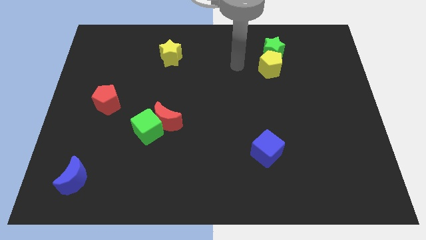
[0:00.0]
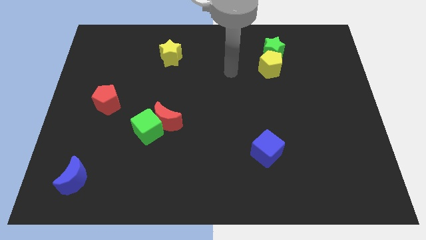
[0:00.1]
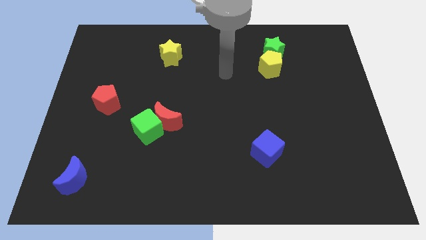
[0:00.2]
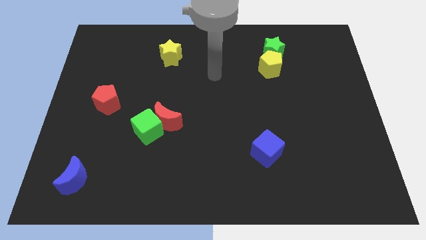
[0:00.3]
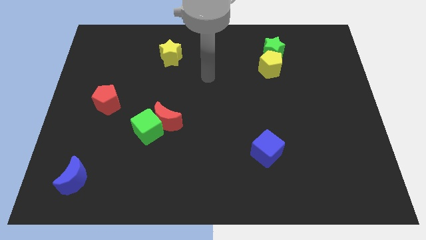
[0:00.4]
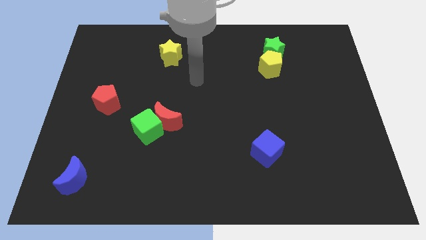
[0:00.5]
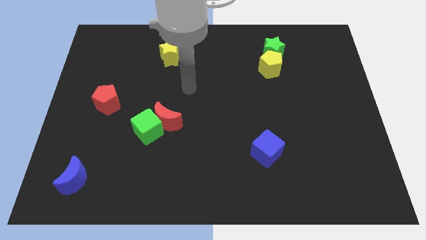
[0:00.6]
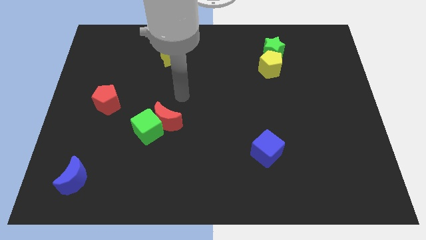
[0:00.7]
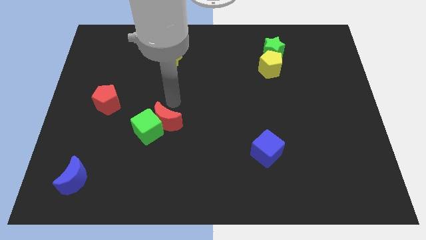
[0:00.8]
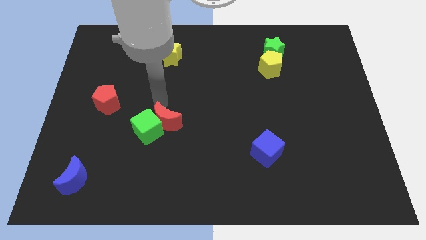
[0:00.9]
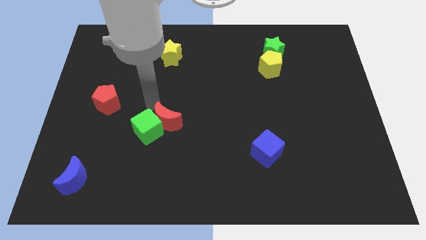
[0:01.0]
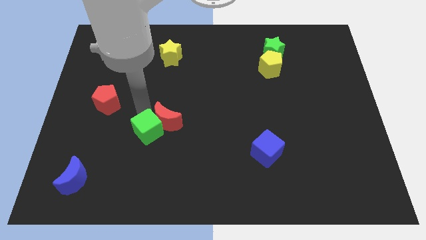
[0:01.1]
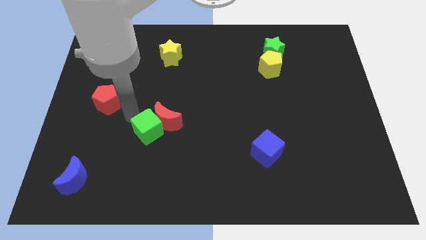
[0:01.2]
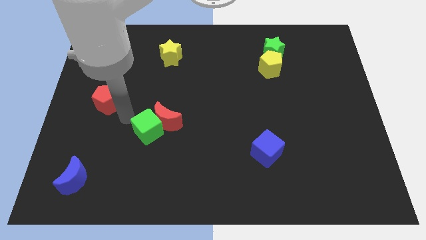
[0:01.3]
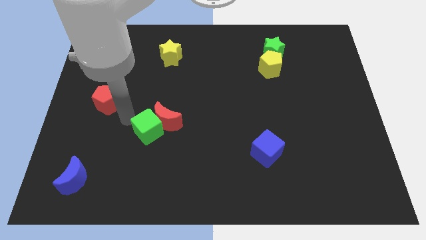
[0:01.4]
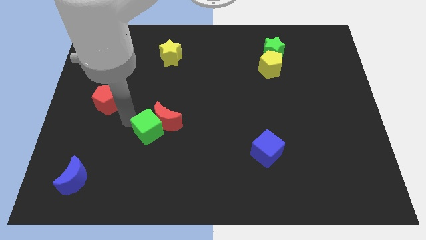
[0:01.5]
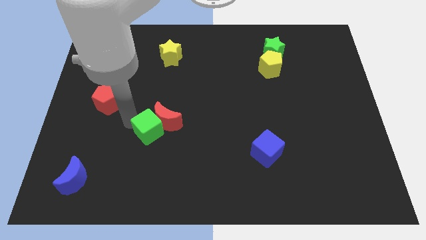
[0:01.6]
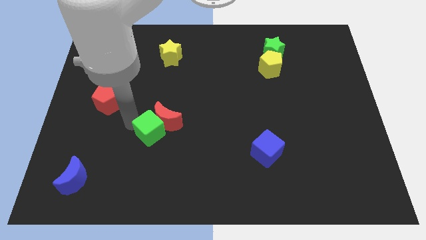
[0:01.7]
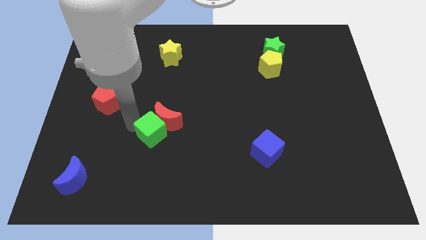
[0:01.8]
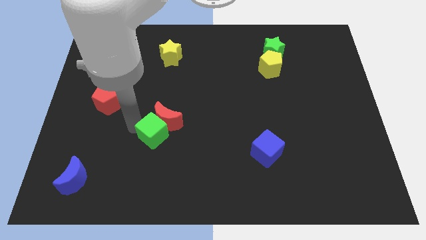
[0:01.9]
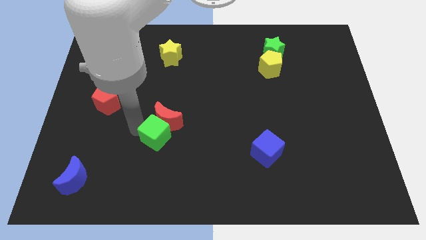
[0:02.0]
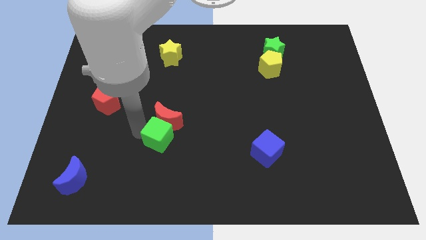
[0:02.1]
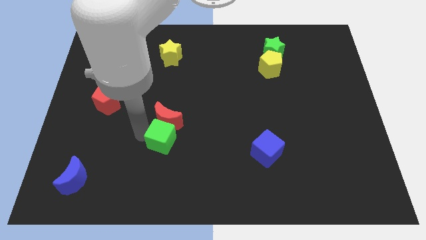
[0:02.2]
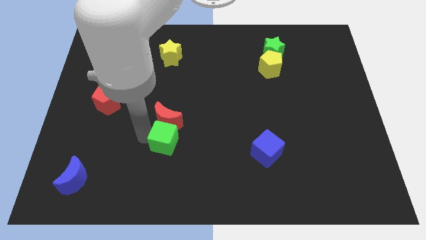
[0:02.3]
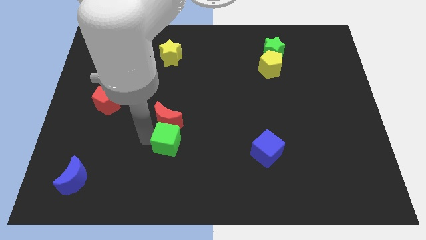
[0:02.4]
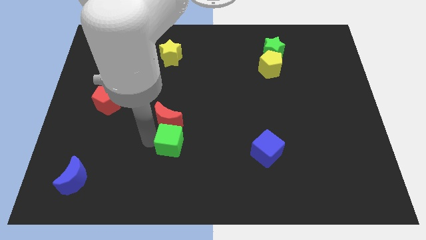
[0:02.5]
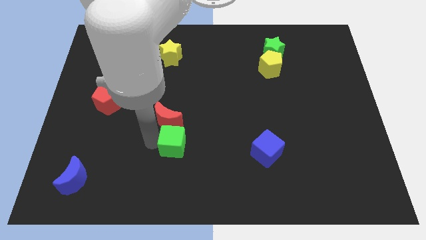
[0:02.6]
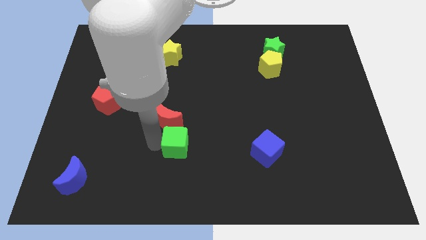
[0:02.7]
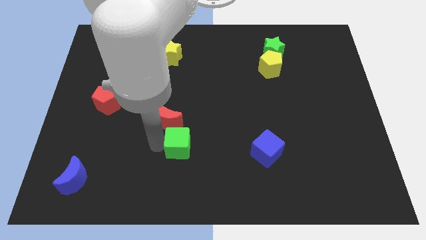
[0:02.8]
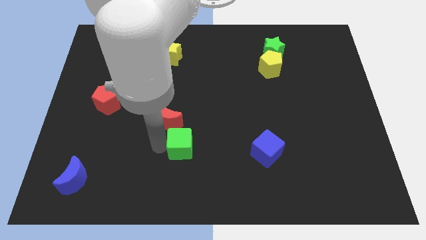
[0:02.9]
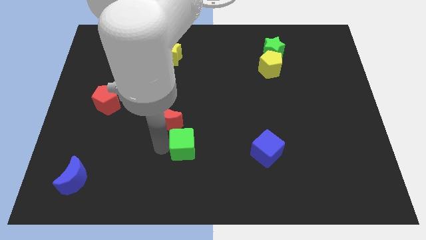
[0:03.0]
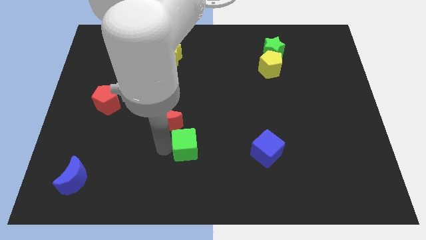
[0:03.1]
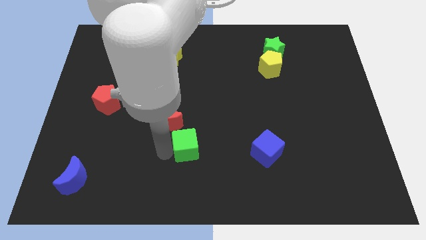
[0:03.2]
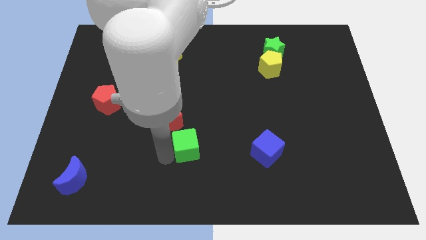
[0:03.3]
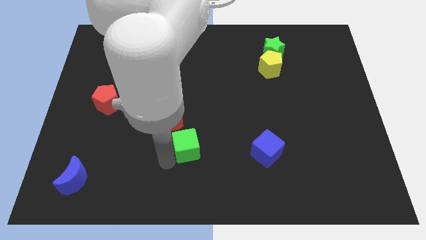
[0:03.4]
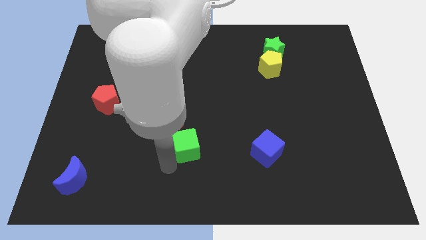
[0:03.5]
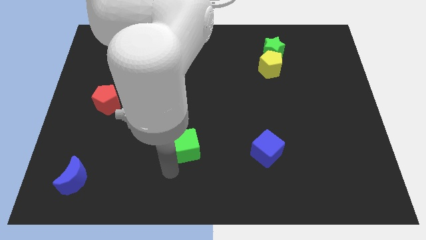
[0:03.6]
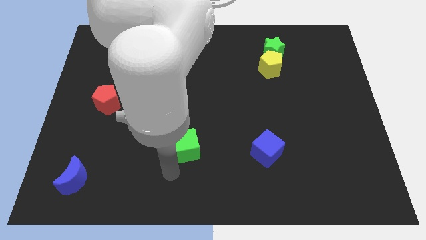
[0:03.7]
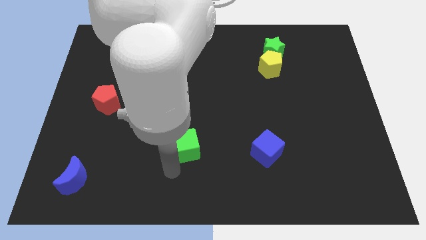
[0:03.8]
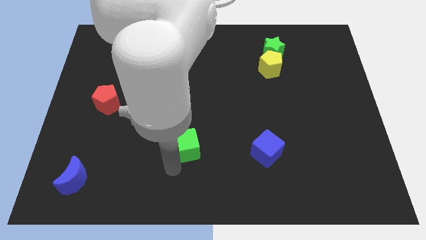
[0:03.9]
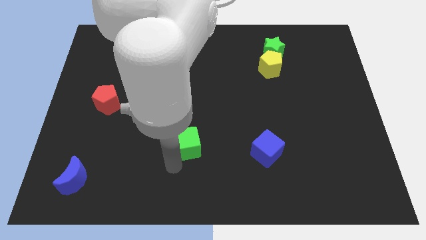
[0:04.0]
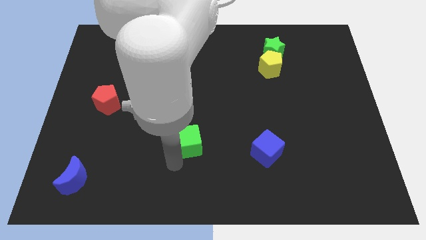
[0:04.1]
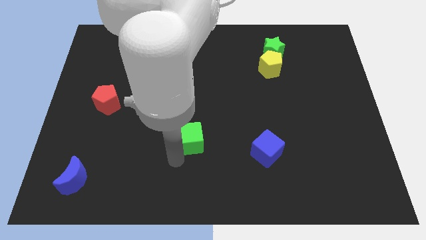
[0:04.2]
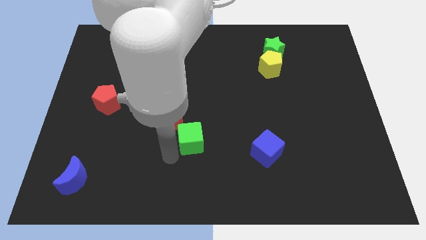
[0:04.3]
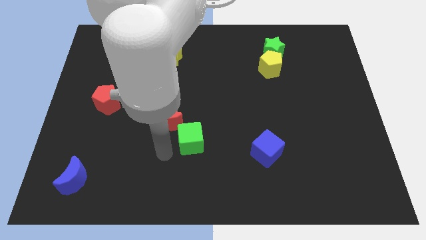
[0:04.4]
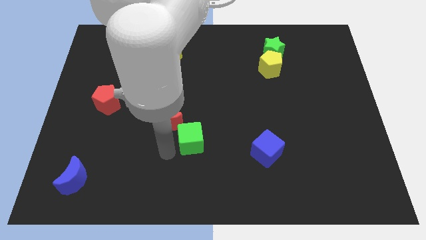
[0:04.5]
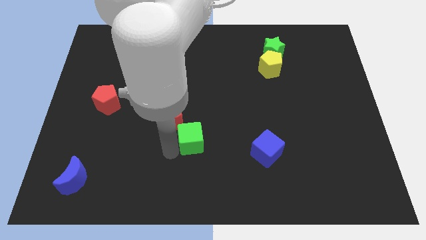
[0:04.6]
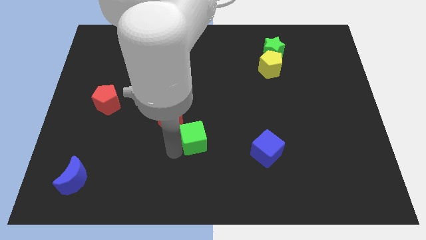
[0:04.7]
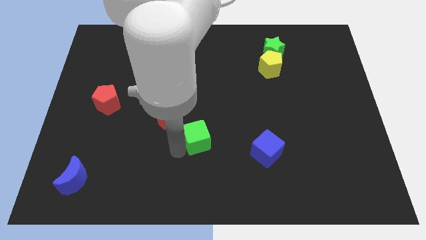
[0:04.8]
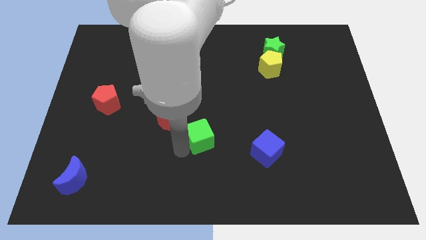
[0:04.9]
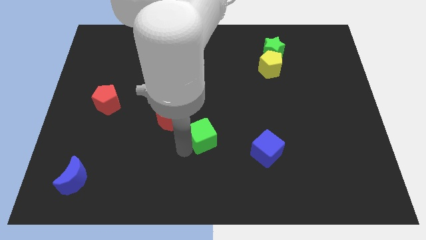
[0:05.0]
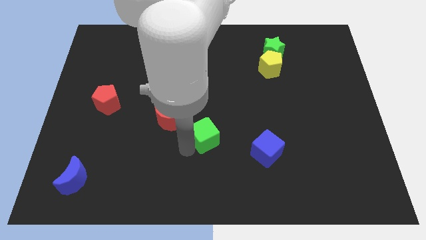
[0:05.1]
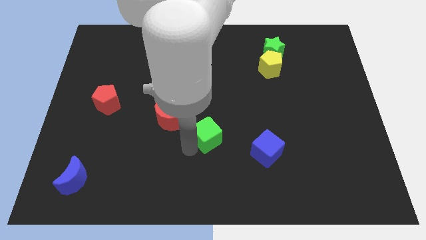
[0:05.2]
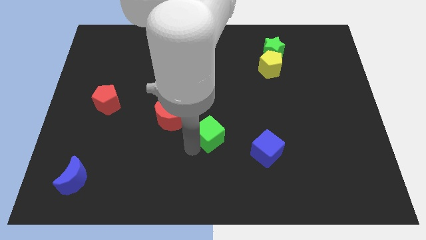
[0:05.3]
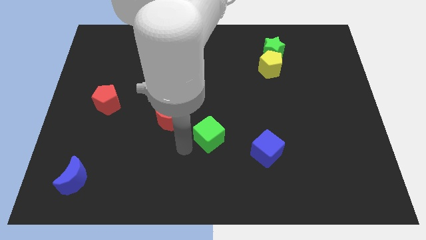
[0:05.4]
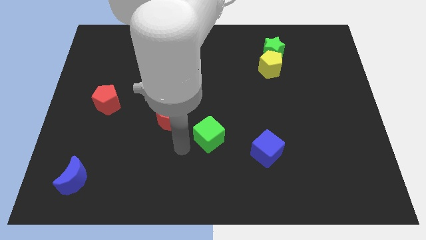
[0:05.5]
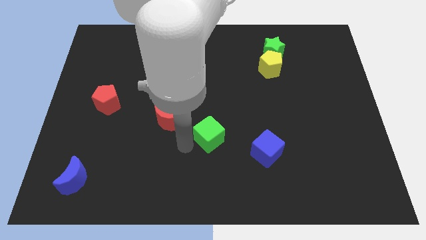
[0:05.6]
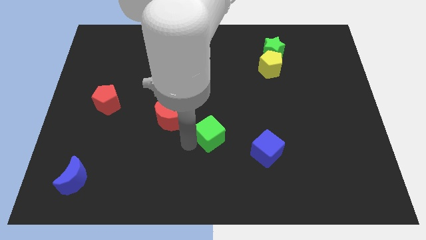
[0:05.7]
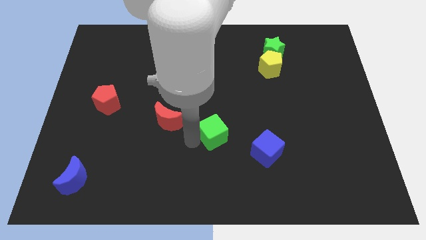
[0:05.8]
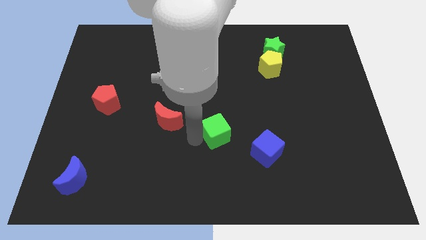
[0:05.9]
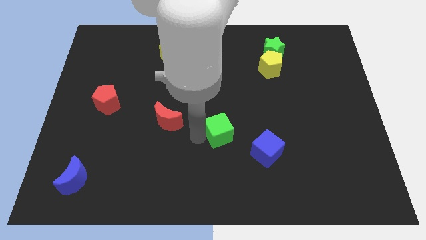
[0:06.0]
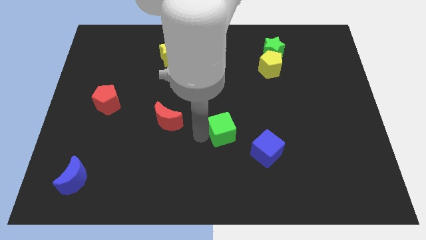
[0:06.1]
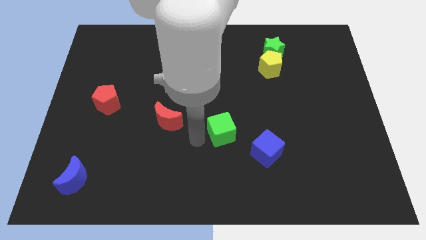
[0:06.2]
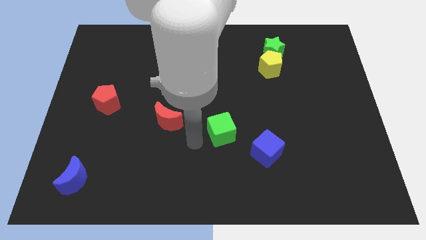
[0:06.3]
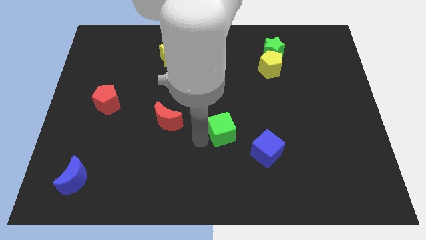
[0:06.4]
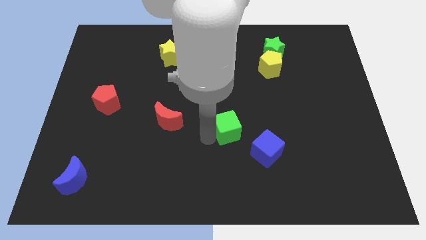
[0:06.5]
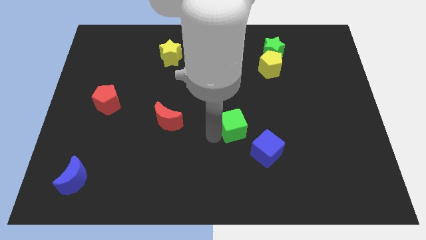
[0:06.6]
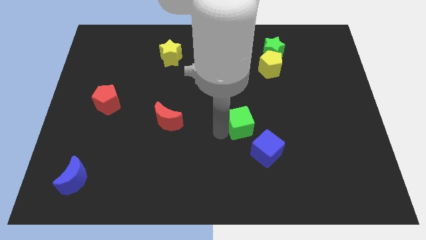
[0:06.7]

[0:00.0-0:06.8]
push the green cube right

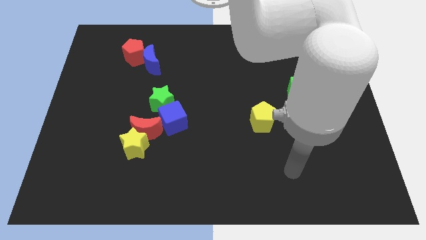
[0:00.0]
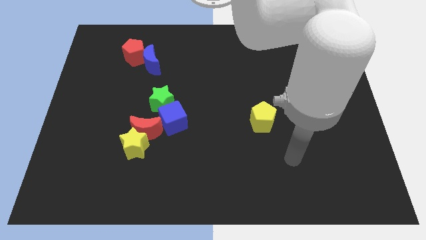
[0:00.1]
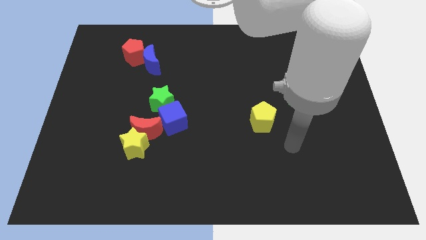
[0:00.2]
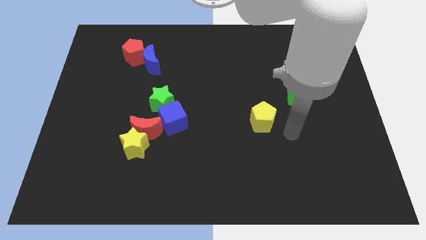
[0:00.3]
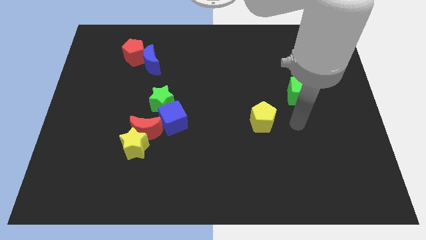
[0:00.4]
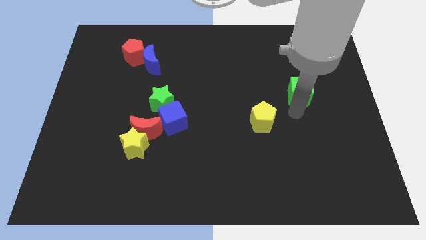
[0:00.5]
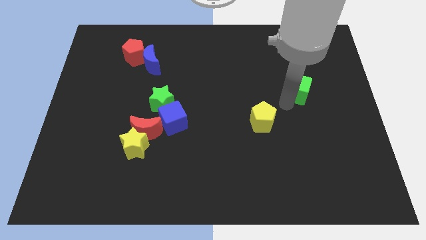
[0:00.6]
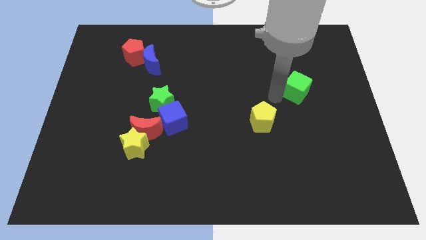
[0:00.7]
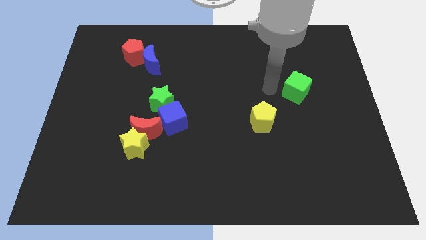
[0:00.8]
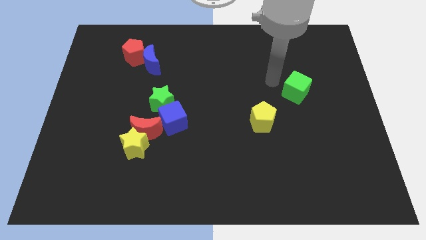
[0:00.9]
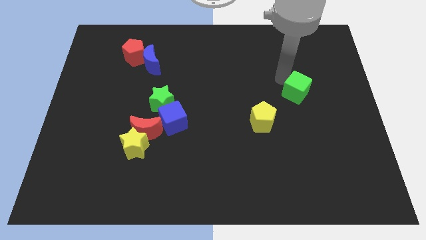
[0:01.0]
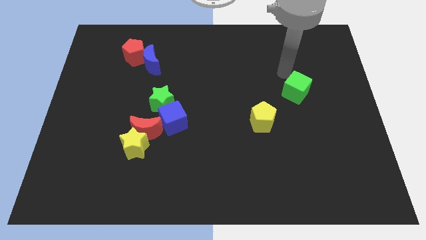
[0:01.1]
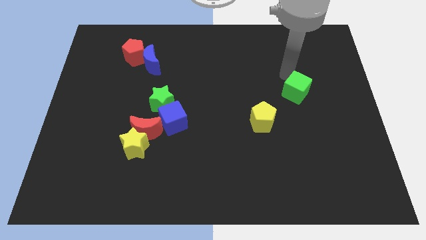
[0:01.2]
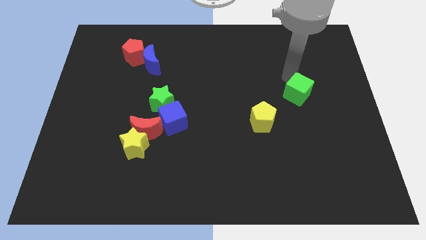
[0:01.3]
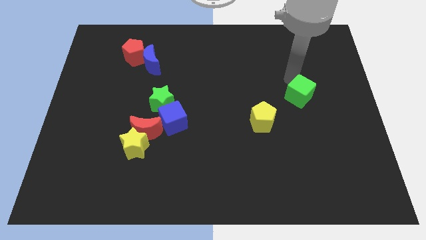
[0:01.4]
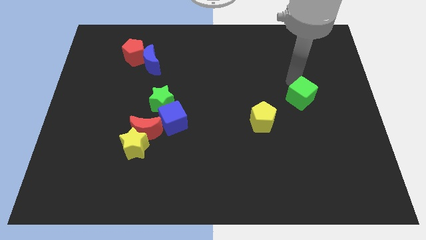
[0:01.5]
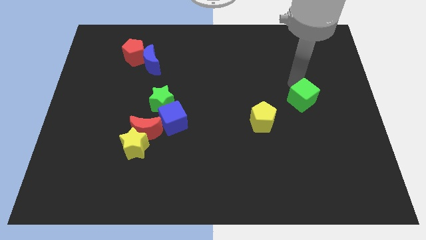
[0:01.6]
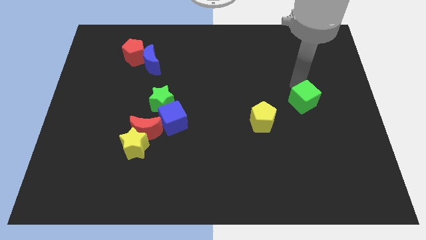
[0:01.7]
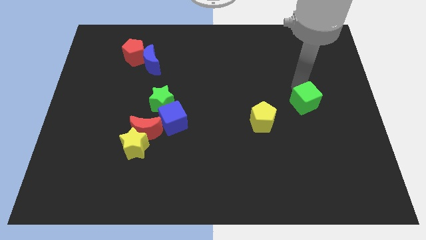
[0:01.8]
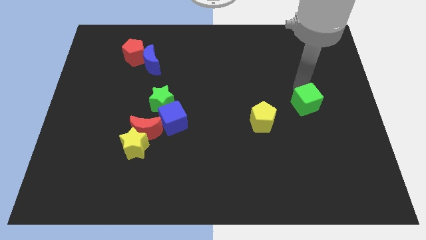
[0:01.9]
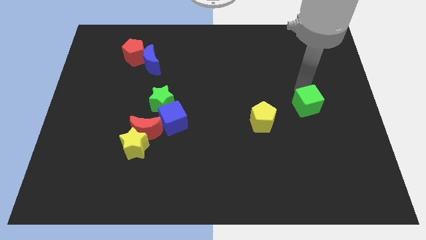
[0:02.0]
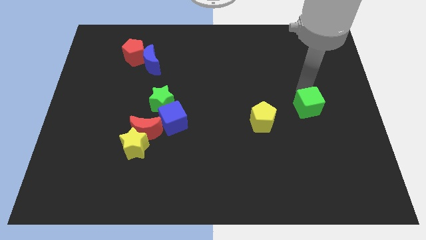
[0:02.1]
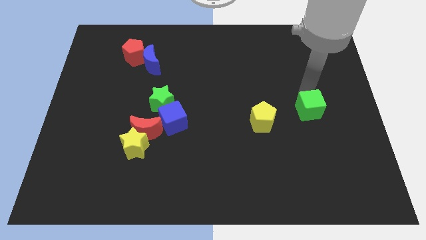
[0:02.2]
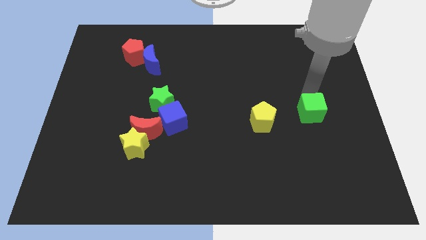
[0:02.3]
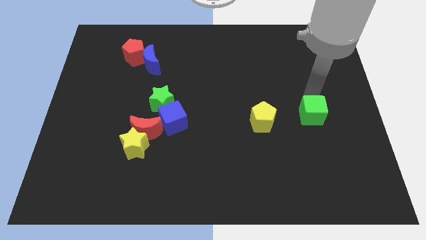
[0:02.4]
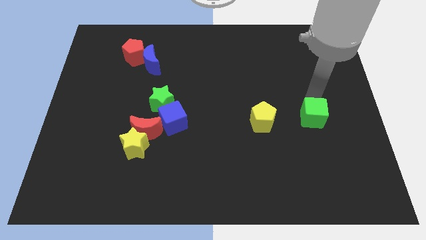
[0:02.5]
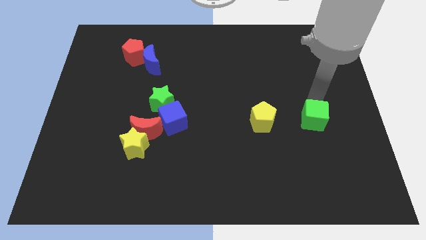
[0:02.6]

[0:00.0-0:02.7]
push the green cube down slightly
